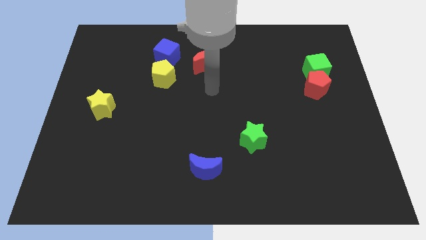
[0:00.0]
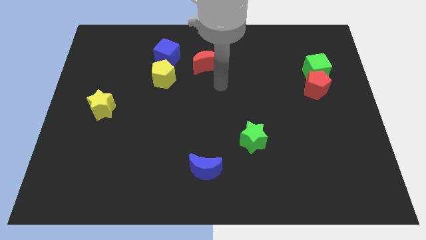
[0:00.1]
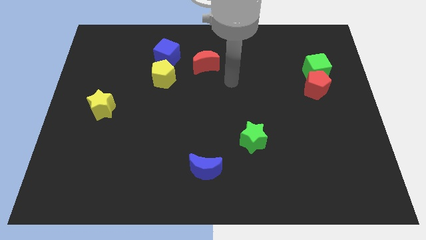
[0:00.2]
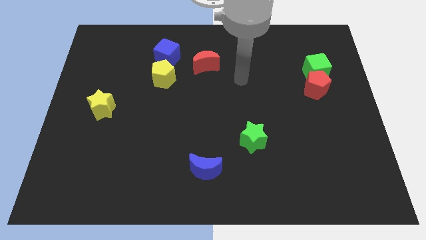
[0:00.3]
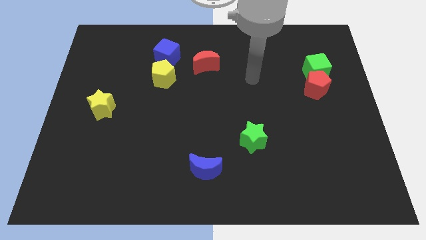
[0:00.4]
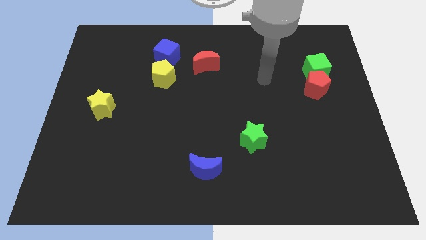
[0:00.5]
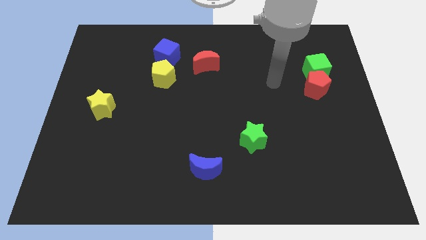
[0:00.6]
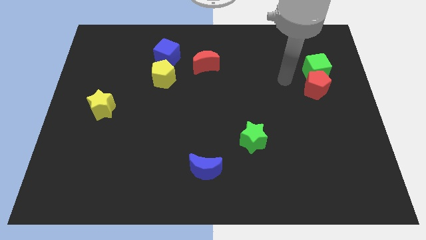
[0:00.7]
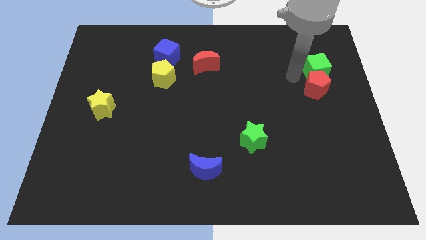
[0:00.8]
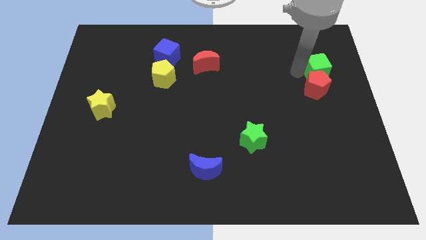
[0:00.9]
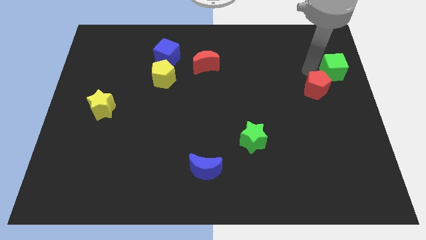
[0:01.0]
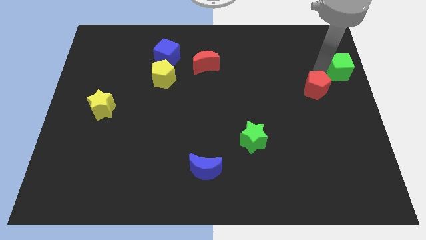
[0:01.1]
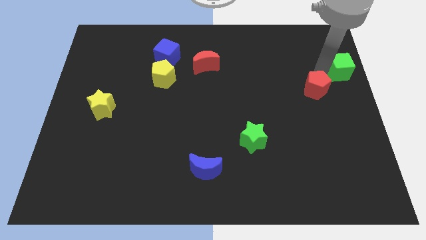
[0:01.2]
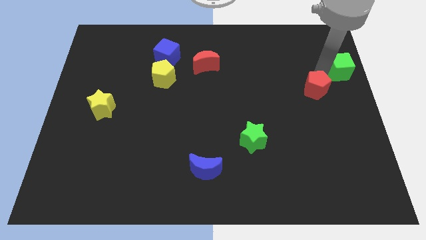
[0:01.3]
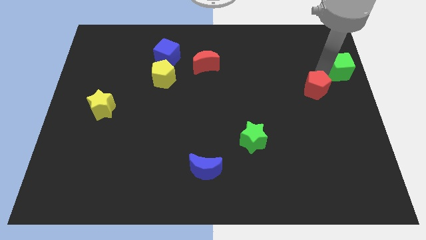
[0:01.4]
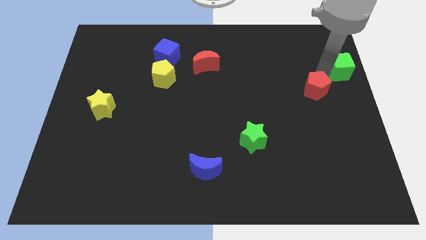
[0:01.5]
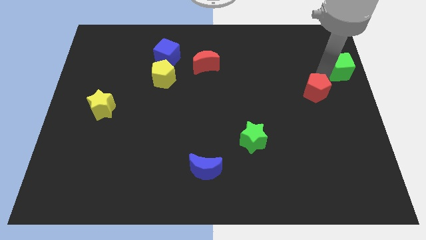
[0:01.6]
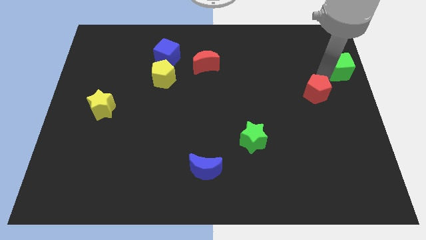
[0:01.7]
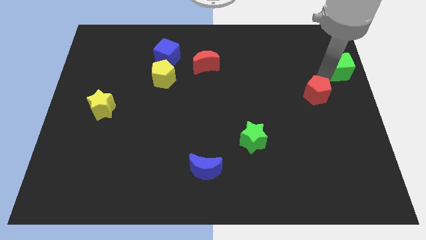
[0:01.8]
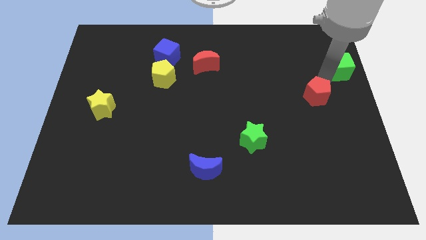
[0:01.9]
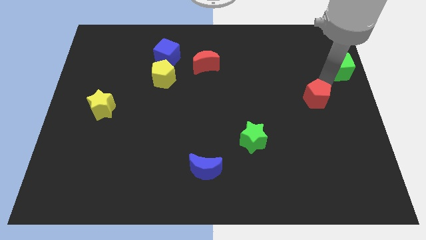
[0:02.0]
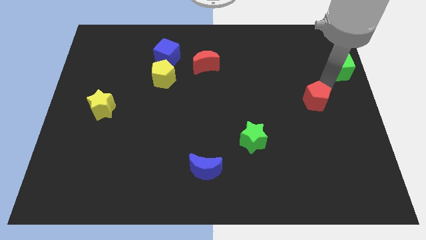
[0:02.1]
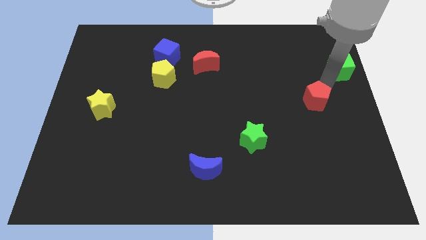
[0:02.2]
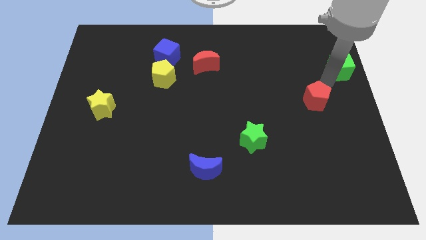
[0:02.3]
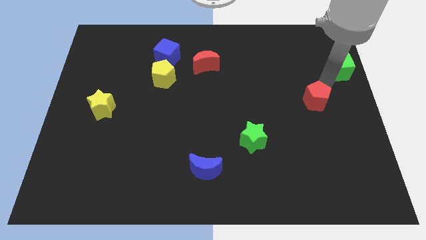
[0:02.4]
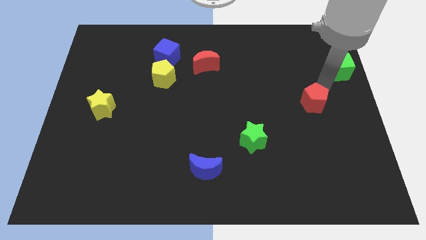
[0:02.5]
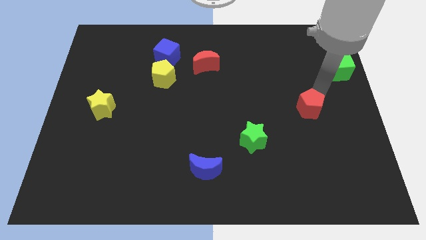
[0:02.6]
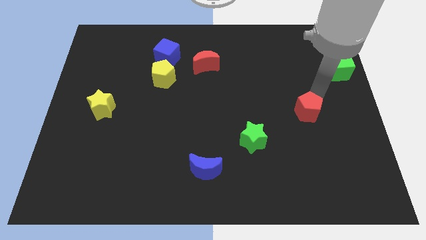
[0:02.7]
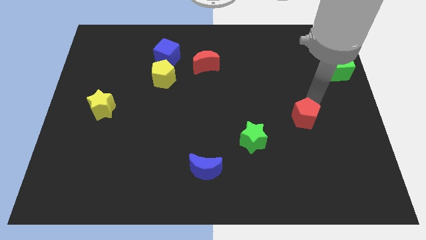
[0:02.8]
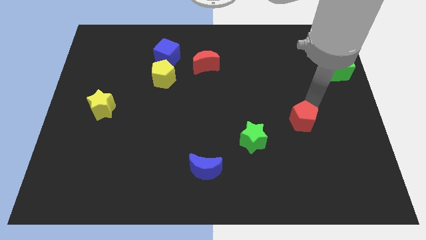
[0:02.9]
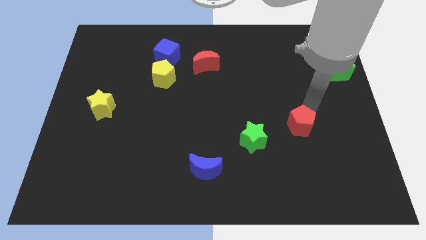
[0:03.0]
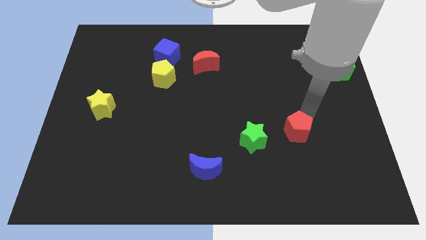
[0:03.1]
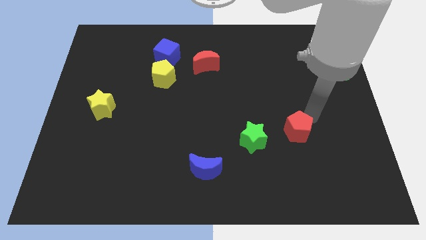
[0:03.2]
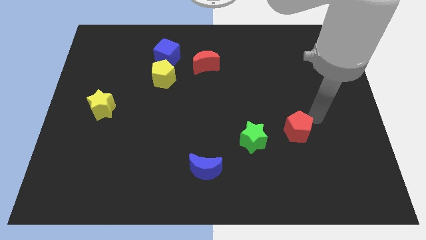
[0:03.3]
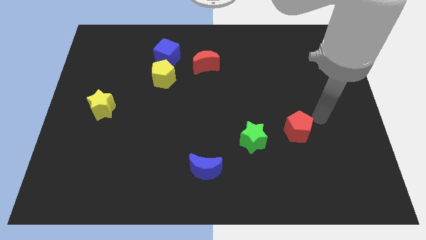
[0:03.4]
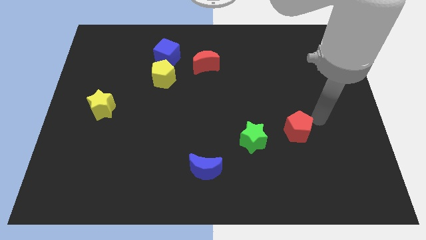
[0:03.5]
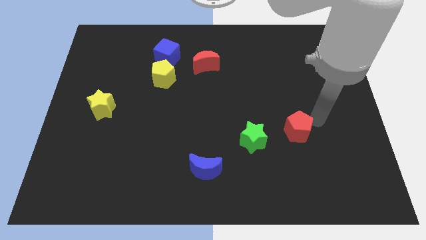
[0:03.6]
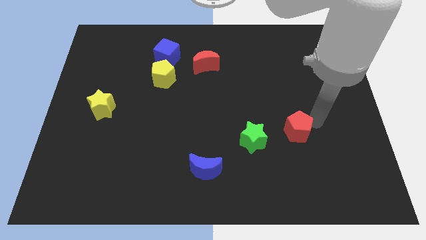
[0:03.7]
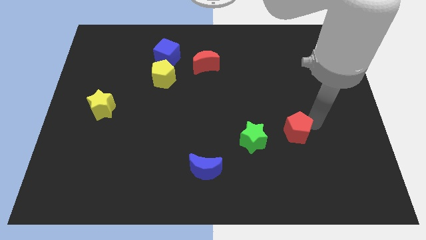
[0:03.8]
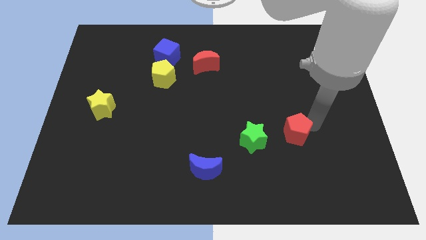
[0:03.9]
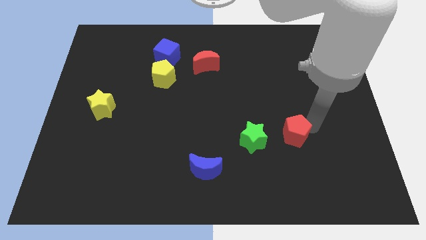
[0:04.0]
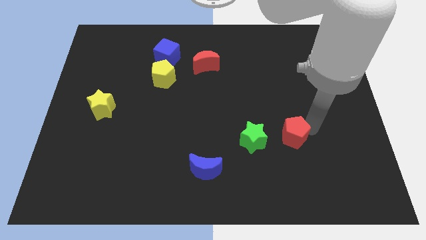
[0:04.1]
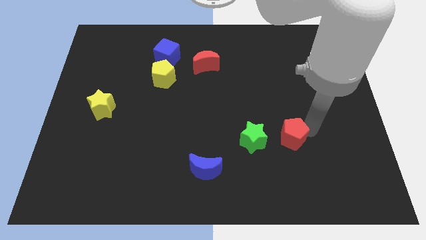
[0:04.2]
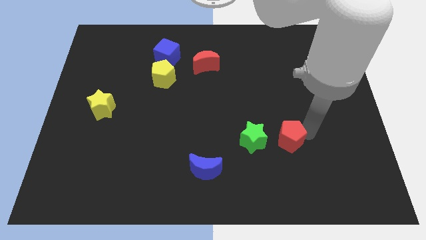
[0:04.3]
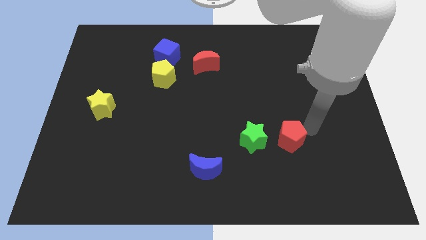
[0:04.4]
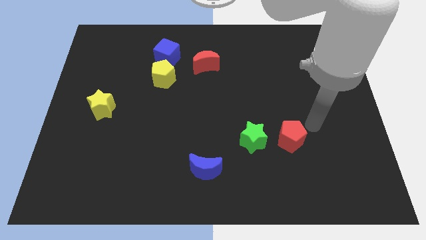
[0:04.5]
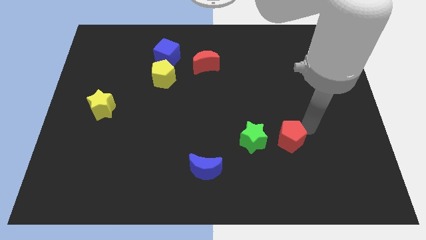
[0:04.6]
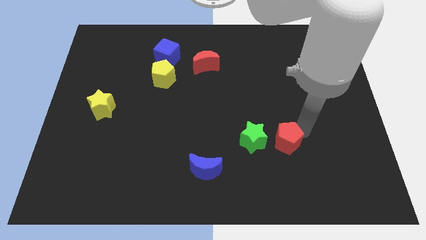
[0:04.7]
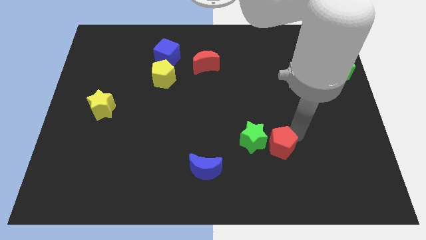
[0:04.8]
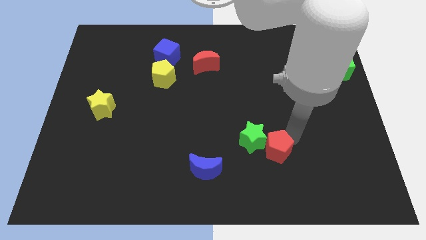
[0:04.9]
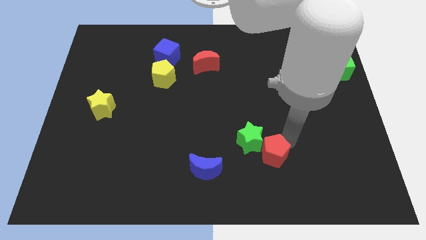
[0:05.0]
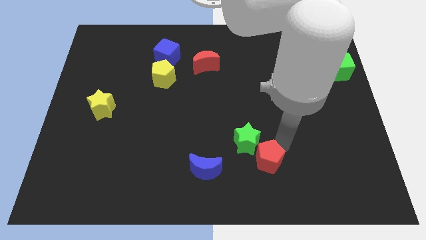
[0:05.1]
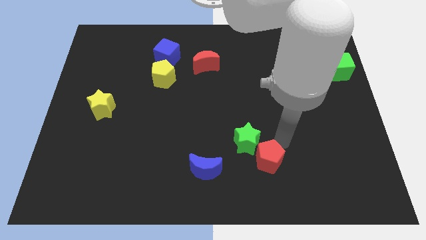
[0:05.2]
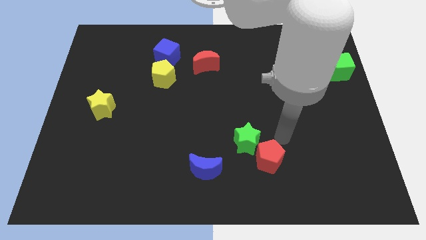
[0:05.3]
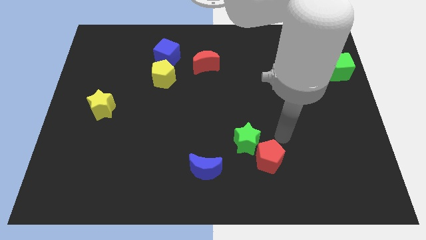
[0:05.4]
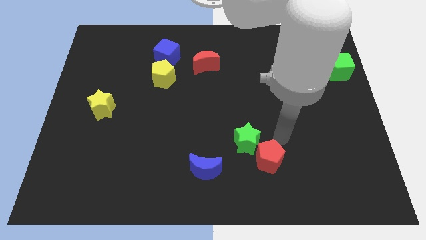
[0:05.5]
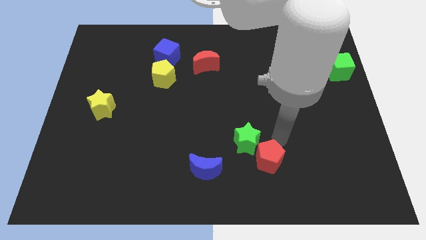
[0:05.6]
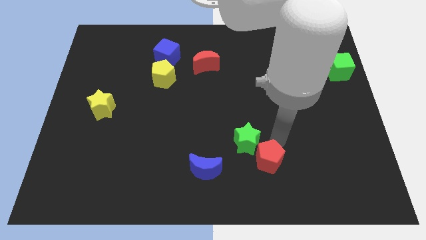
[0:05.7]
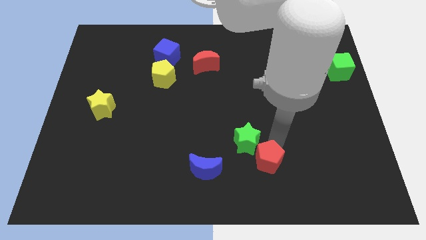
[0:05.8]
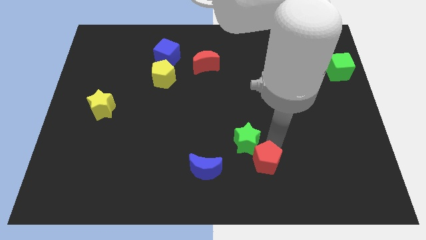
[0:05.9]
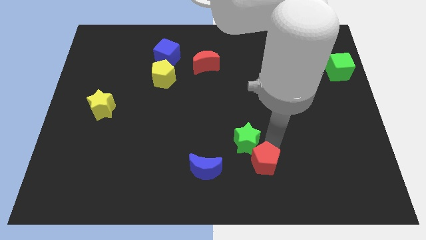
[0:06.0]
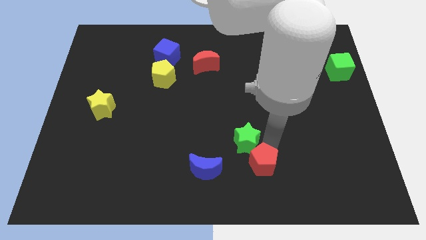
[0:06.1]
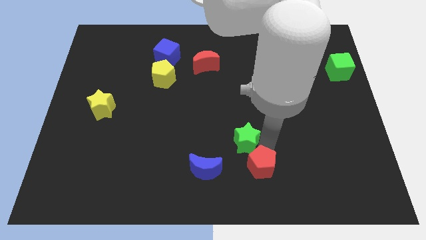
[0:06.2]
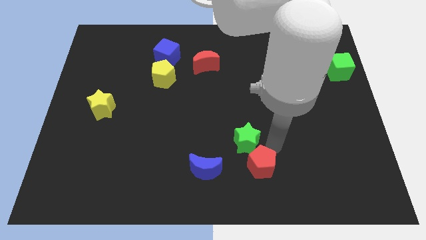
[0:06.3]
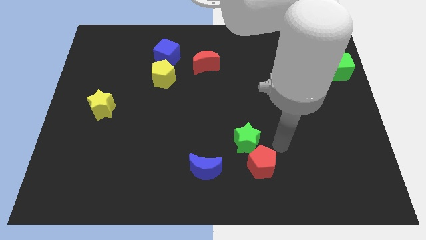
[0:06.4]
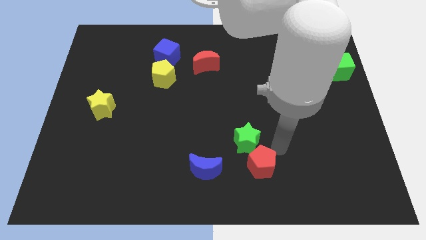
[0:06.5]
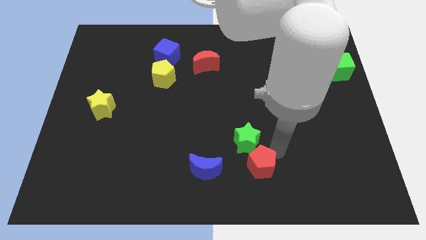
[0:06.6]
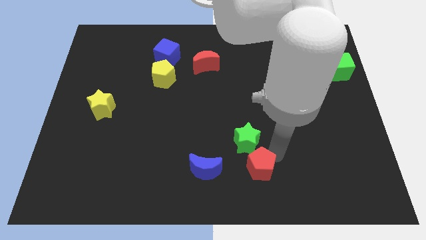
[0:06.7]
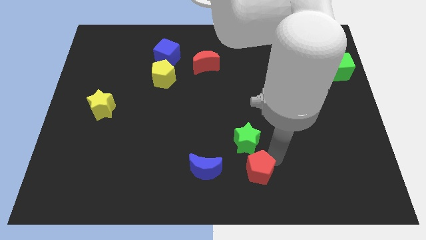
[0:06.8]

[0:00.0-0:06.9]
push the red pentagon to the bottom side

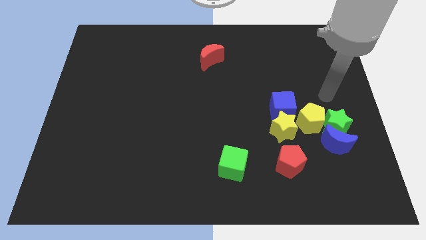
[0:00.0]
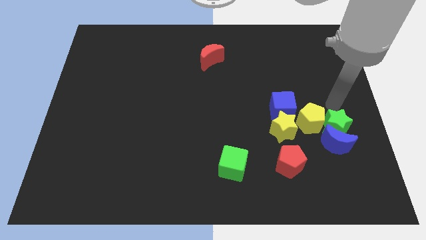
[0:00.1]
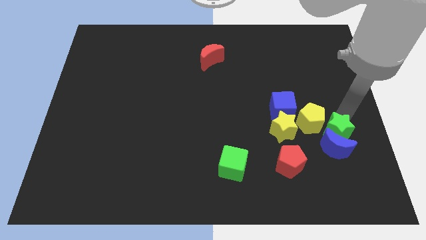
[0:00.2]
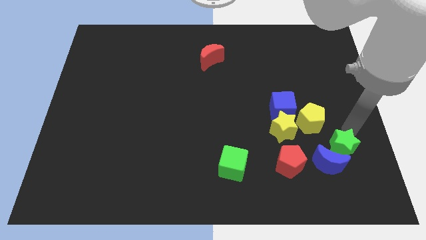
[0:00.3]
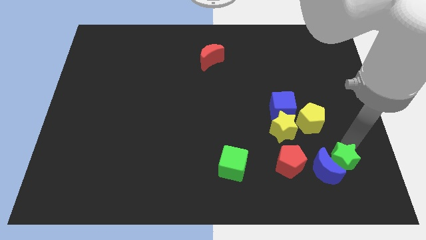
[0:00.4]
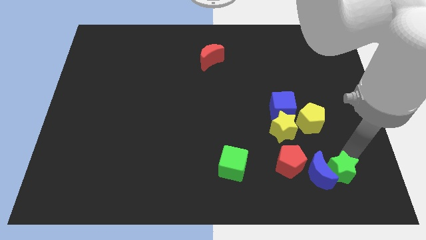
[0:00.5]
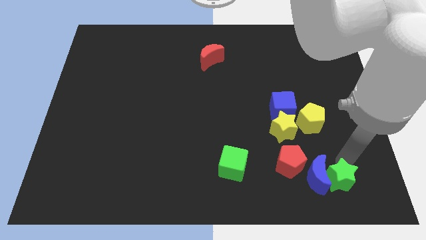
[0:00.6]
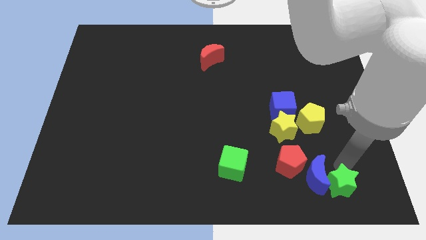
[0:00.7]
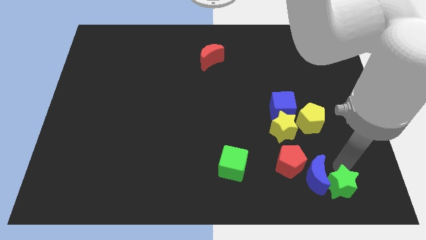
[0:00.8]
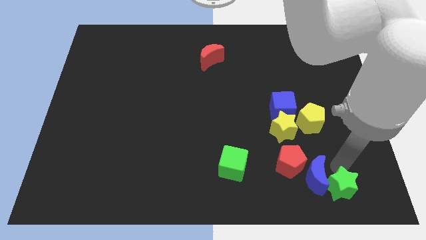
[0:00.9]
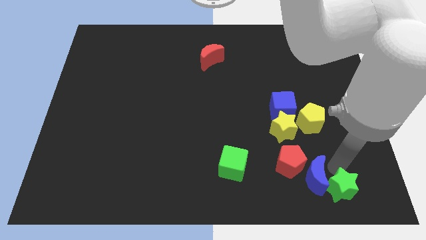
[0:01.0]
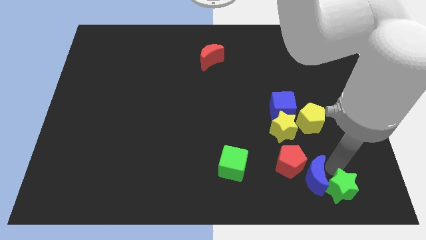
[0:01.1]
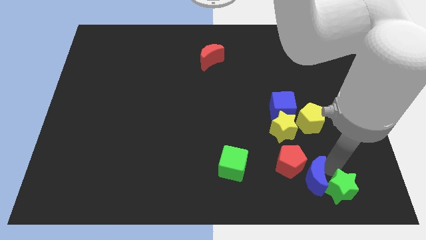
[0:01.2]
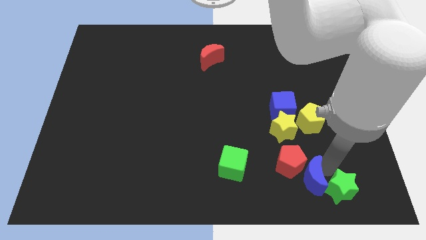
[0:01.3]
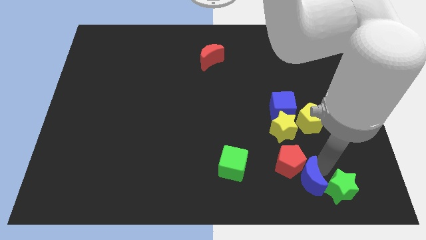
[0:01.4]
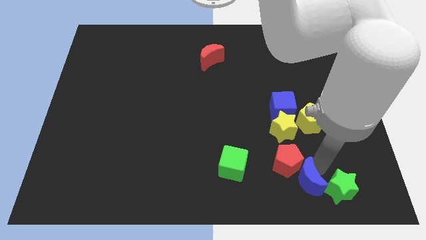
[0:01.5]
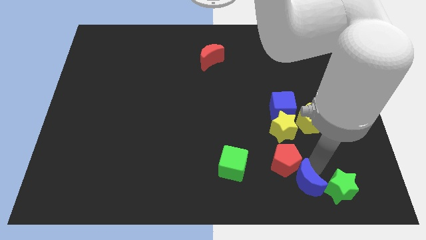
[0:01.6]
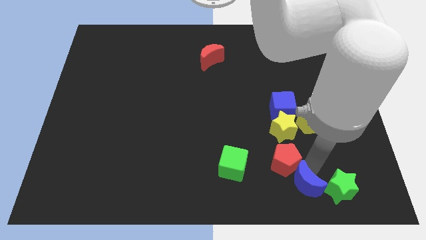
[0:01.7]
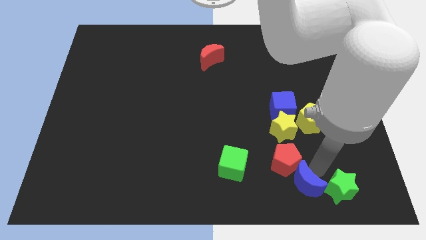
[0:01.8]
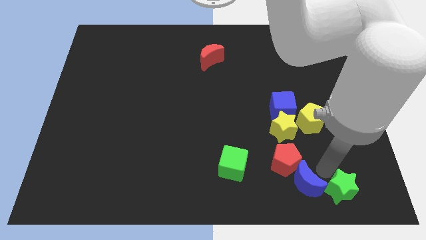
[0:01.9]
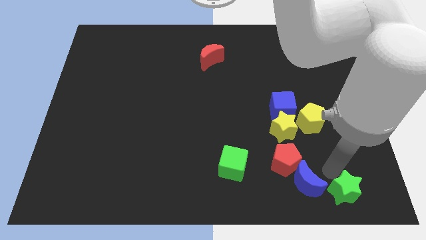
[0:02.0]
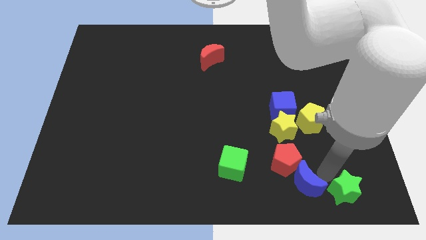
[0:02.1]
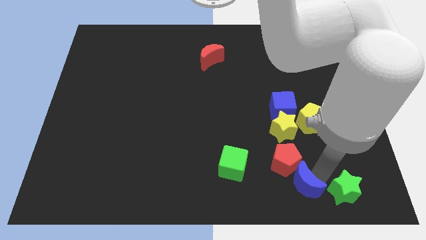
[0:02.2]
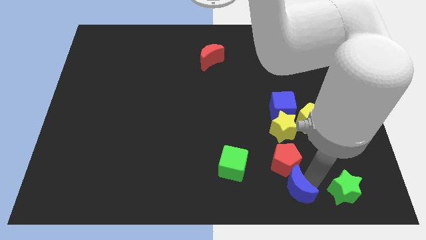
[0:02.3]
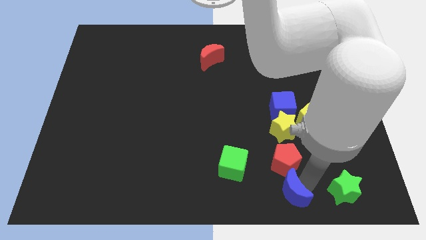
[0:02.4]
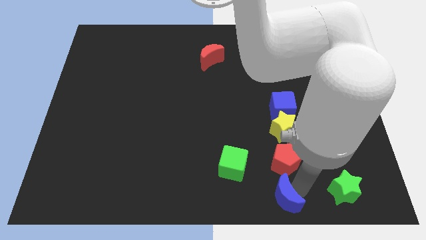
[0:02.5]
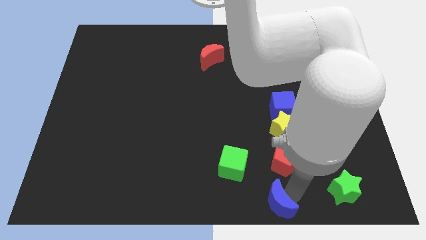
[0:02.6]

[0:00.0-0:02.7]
put the blue moon to the bottom
